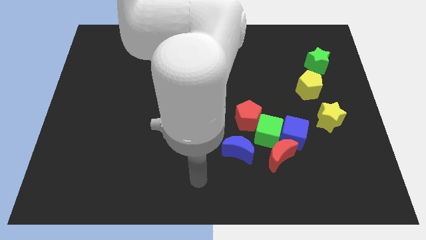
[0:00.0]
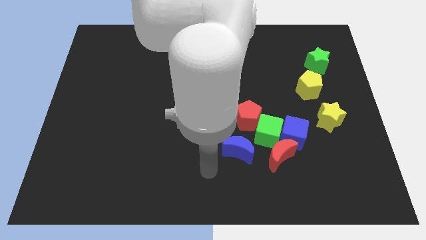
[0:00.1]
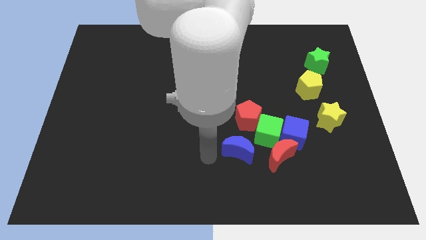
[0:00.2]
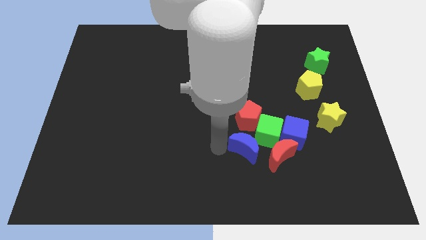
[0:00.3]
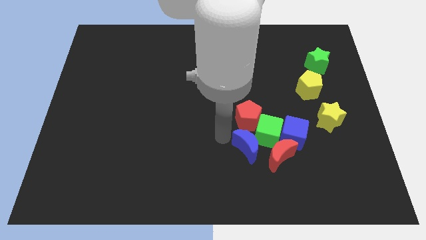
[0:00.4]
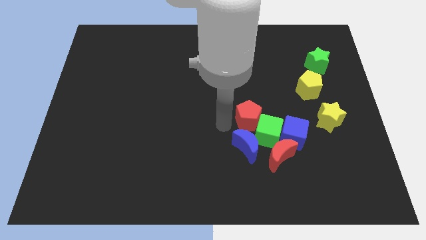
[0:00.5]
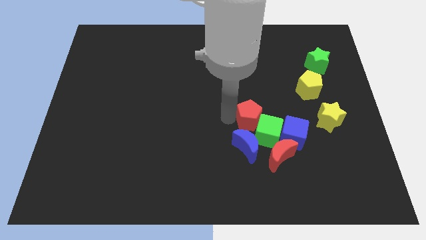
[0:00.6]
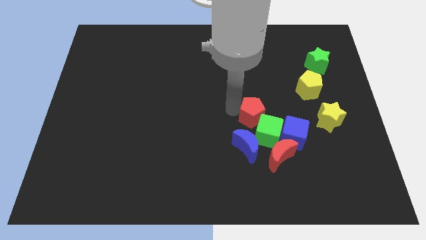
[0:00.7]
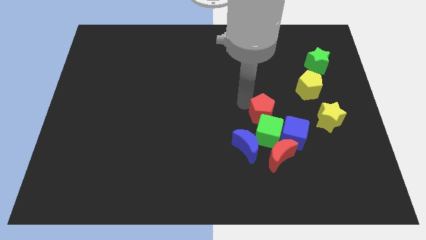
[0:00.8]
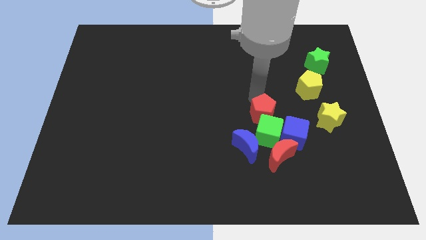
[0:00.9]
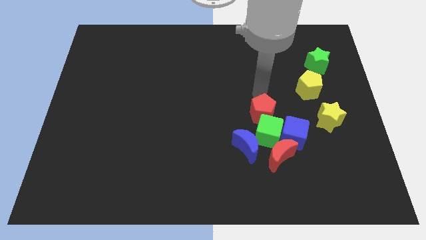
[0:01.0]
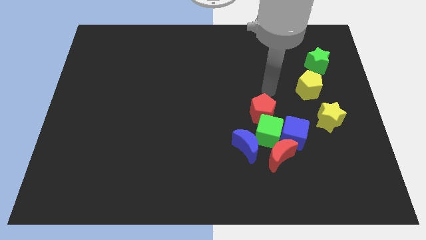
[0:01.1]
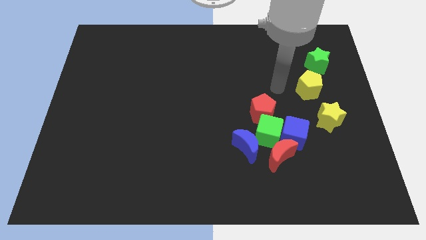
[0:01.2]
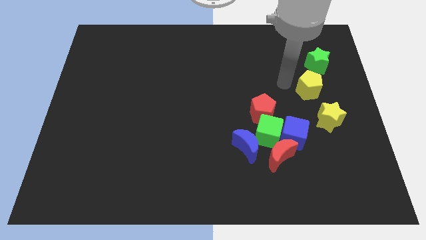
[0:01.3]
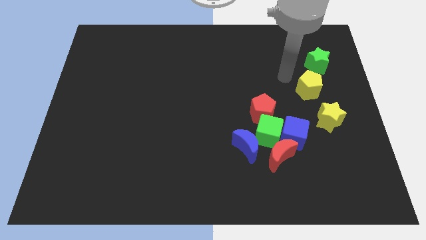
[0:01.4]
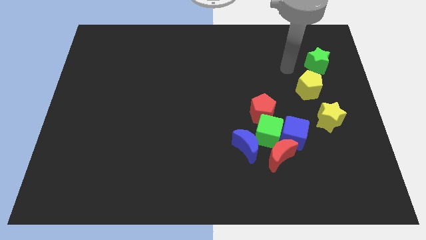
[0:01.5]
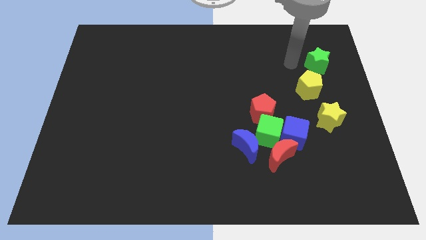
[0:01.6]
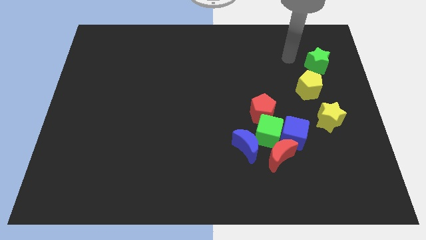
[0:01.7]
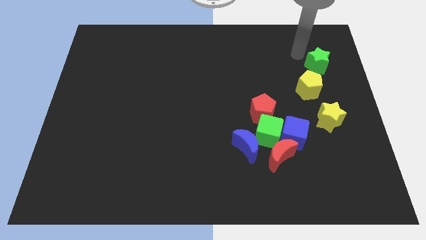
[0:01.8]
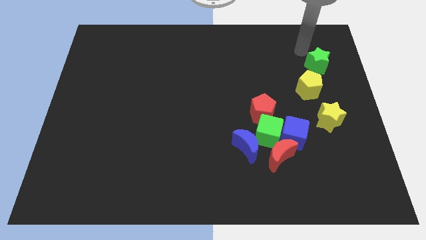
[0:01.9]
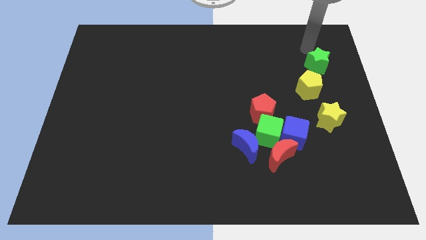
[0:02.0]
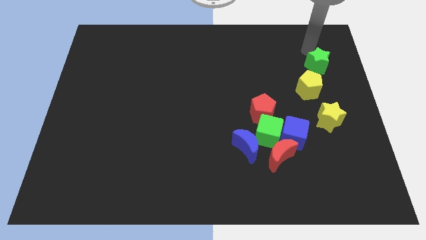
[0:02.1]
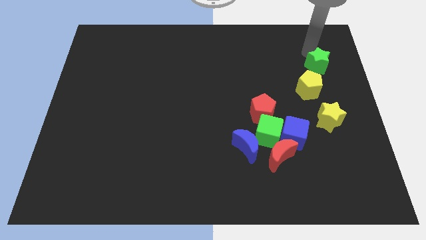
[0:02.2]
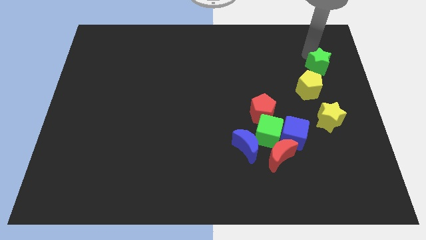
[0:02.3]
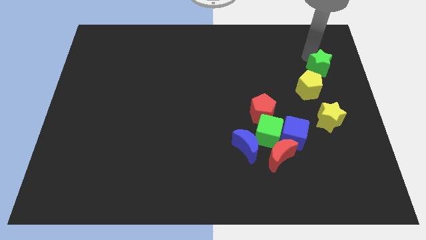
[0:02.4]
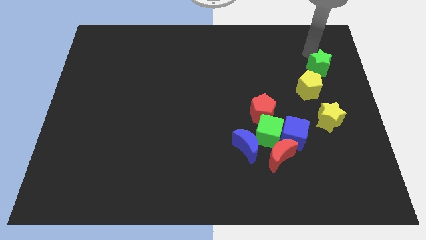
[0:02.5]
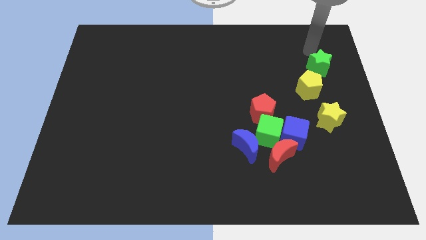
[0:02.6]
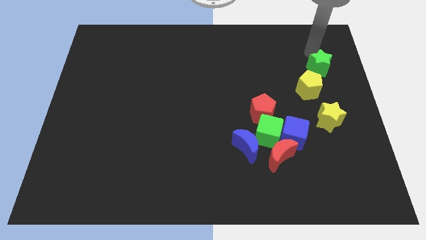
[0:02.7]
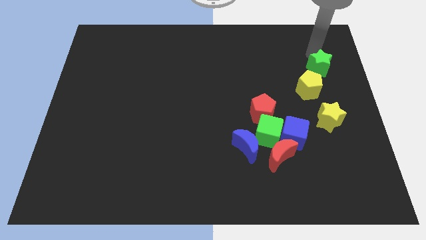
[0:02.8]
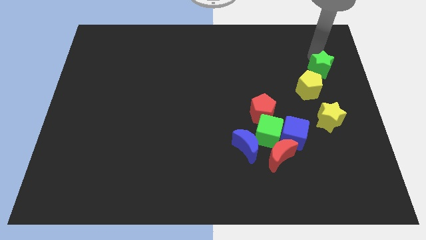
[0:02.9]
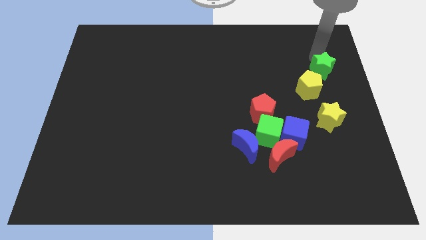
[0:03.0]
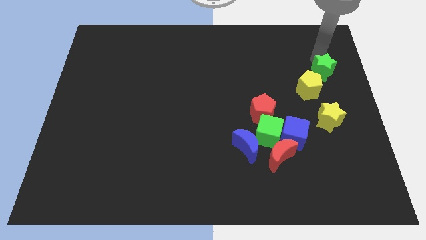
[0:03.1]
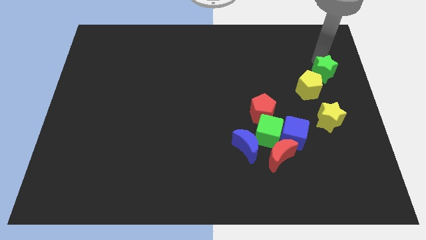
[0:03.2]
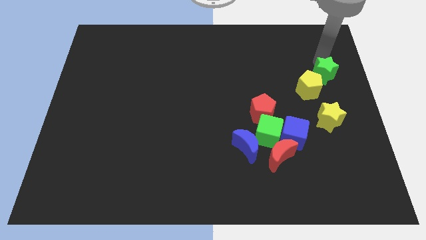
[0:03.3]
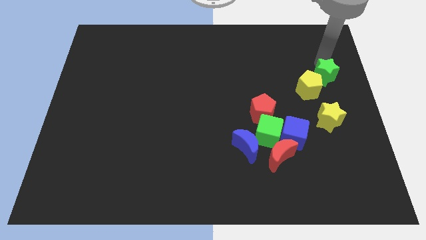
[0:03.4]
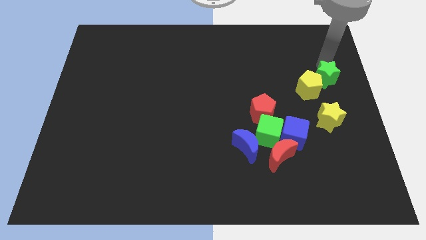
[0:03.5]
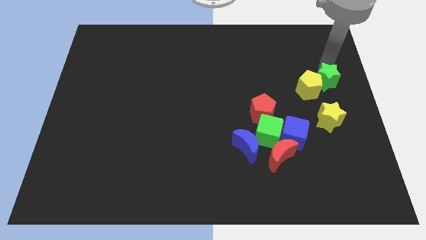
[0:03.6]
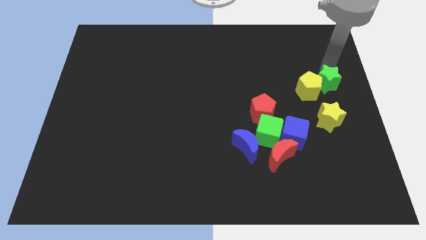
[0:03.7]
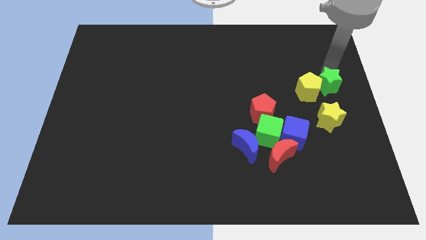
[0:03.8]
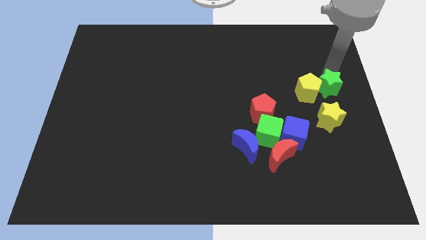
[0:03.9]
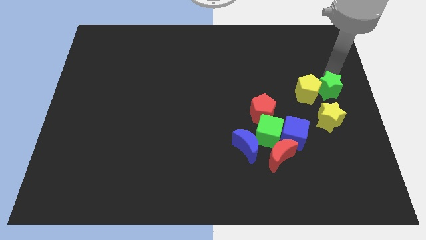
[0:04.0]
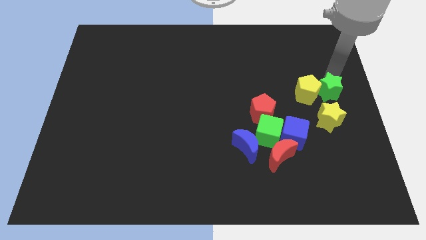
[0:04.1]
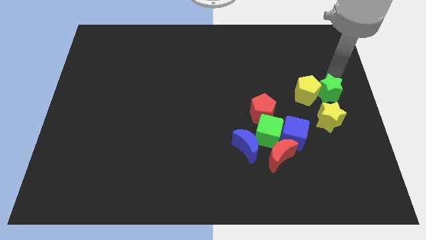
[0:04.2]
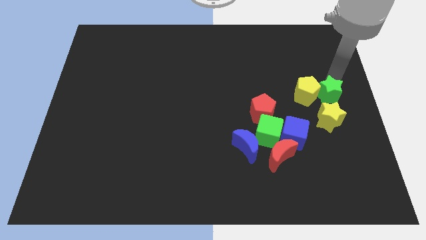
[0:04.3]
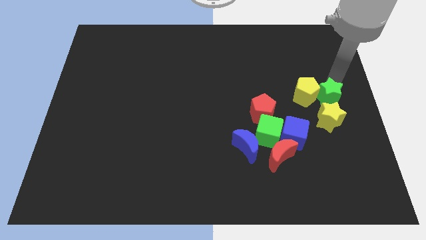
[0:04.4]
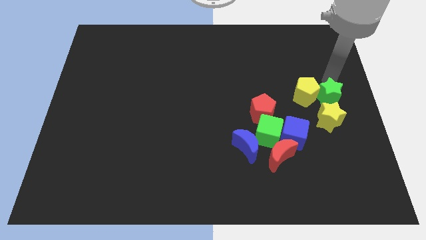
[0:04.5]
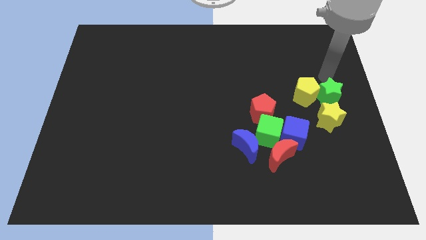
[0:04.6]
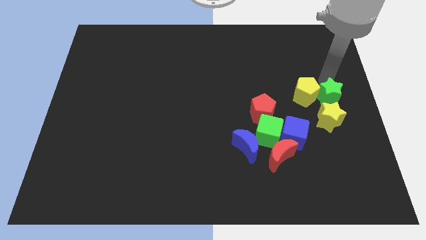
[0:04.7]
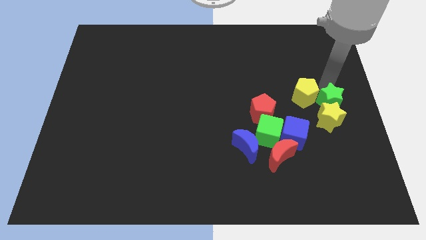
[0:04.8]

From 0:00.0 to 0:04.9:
put the green star close to the yellow star

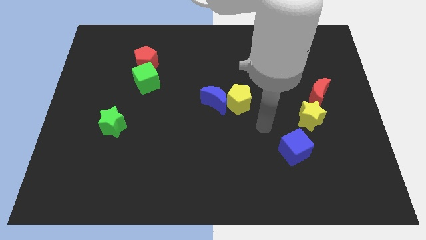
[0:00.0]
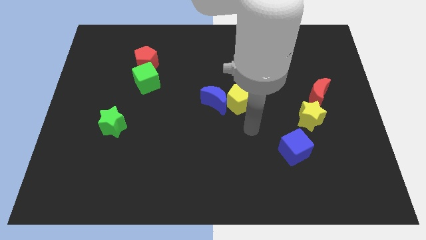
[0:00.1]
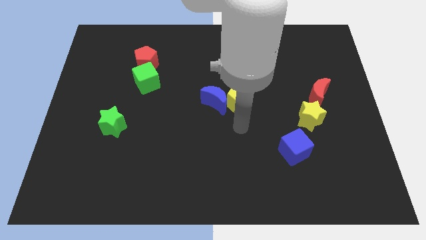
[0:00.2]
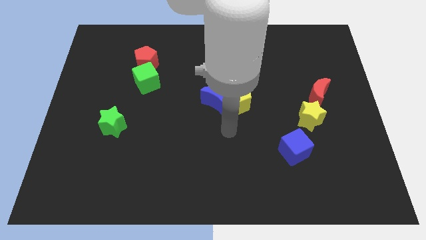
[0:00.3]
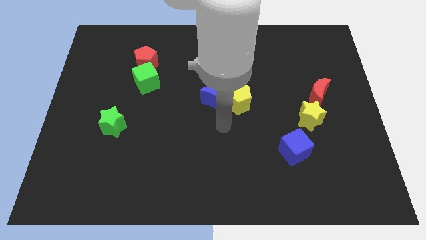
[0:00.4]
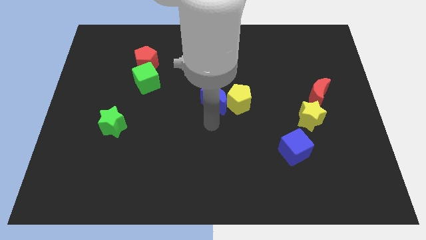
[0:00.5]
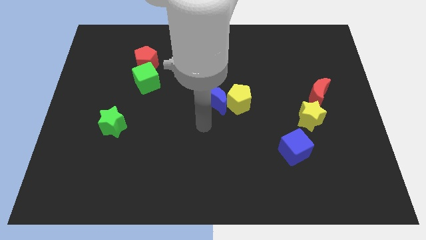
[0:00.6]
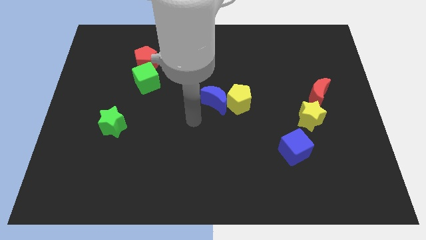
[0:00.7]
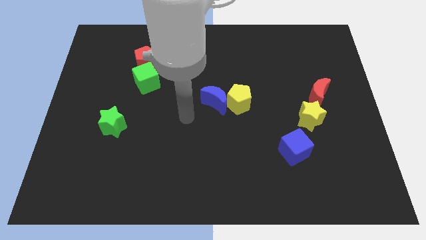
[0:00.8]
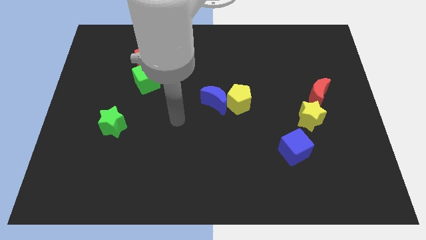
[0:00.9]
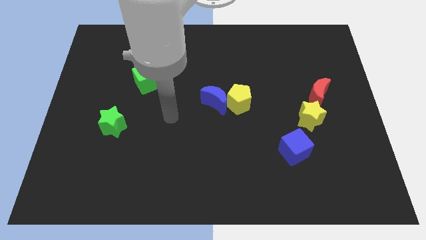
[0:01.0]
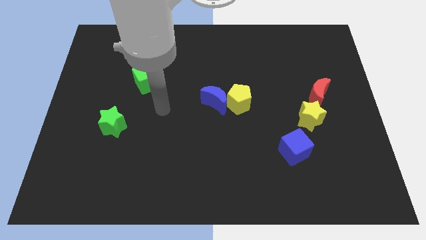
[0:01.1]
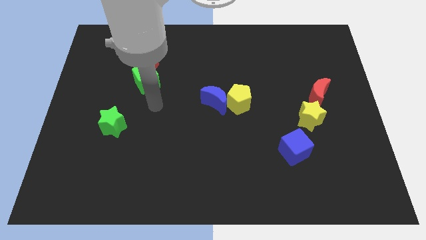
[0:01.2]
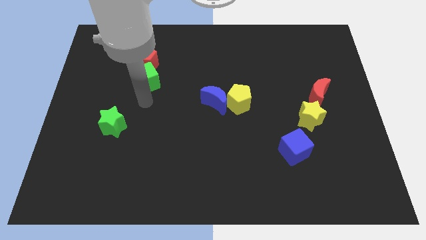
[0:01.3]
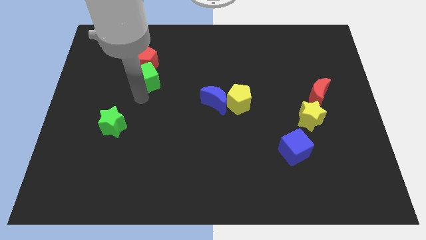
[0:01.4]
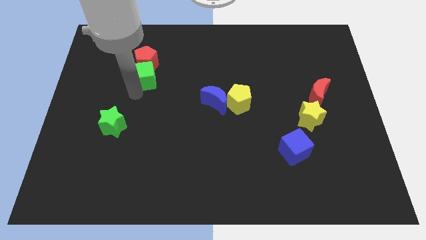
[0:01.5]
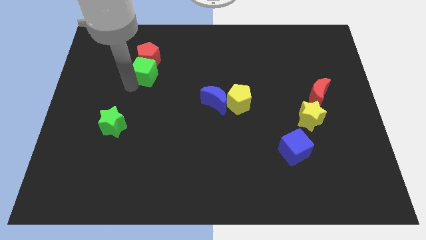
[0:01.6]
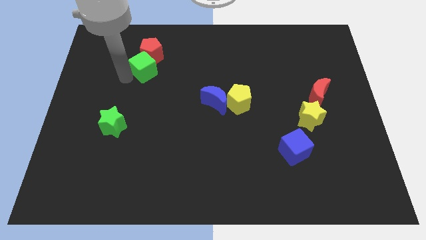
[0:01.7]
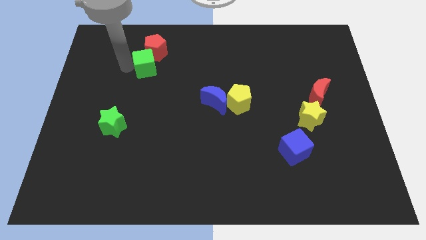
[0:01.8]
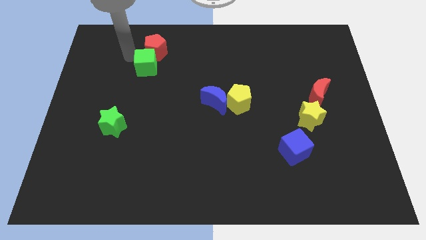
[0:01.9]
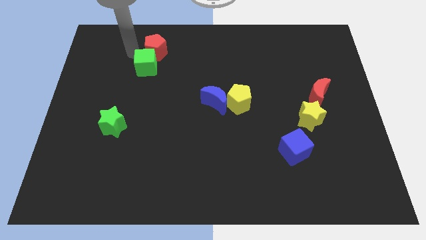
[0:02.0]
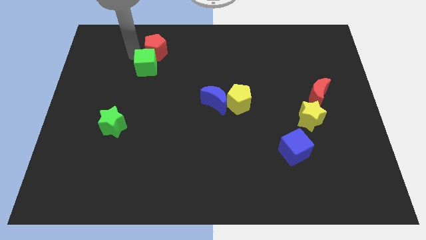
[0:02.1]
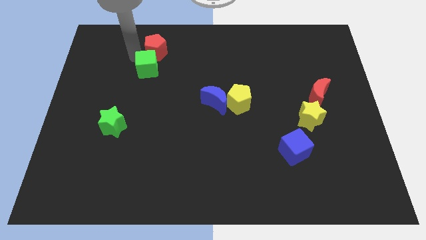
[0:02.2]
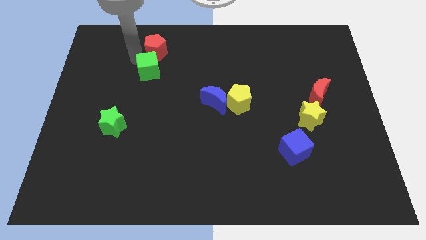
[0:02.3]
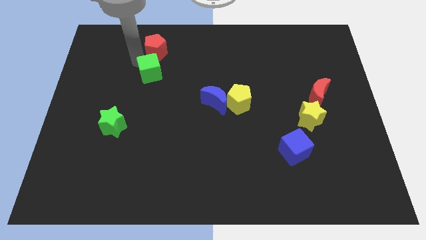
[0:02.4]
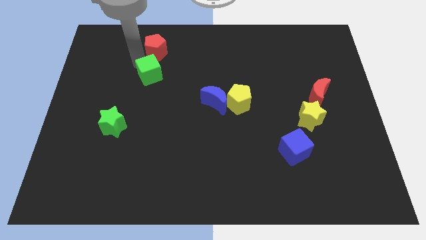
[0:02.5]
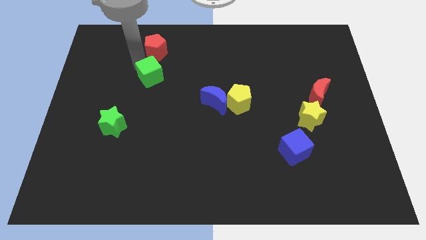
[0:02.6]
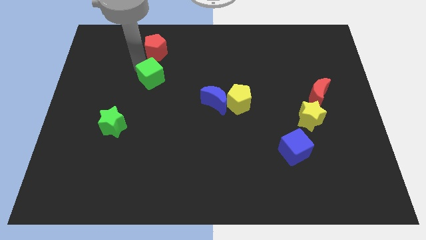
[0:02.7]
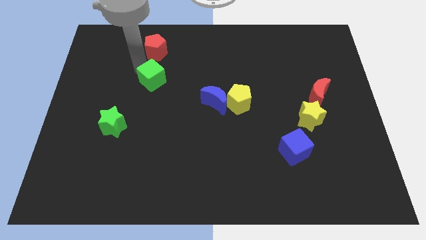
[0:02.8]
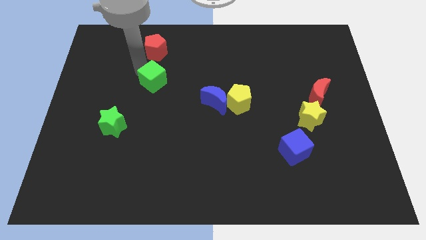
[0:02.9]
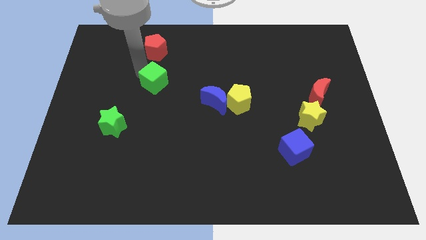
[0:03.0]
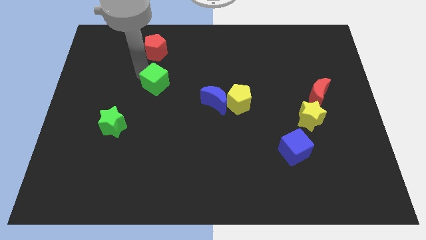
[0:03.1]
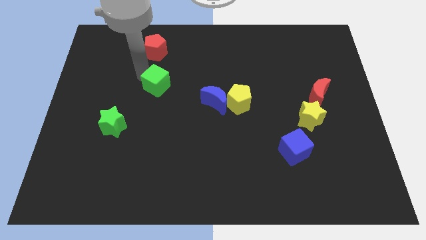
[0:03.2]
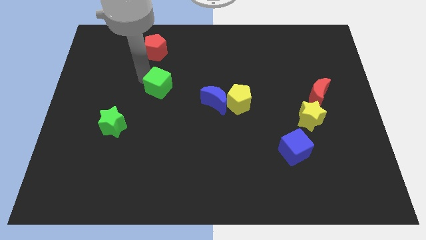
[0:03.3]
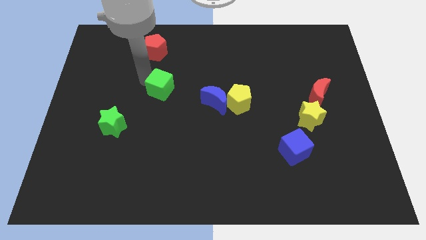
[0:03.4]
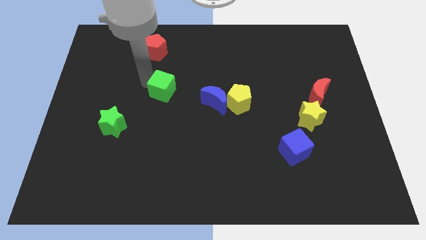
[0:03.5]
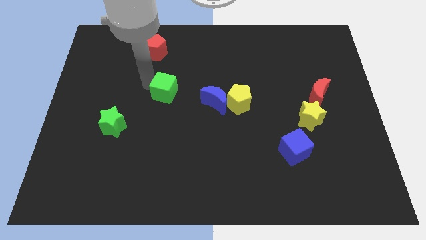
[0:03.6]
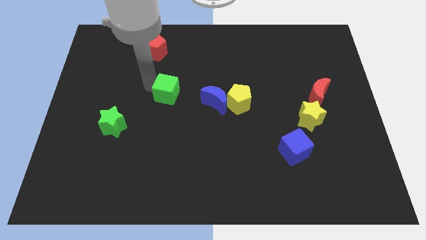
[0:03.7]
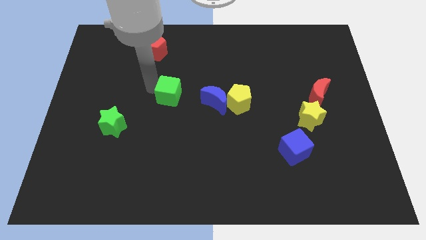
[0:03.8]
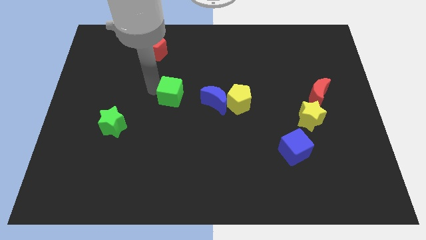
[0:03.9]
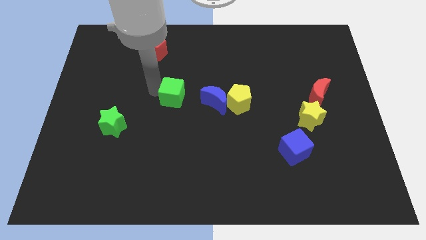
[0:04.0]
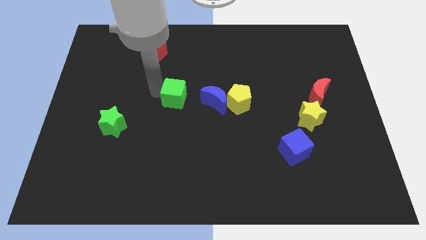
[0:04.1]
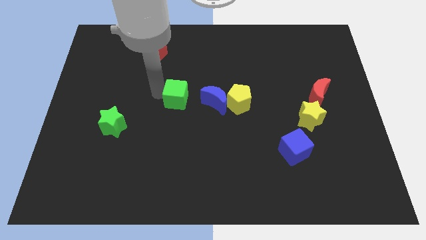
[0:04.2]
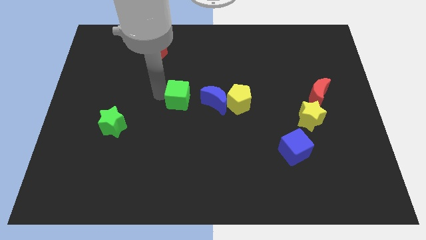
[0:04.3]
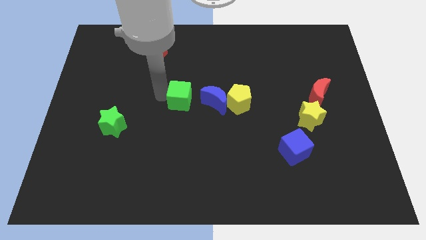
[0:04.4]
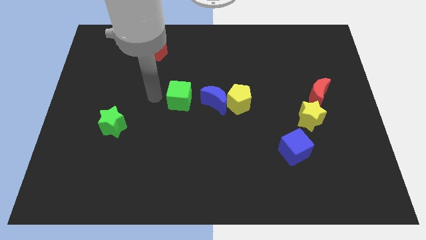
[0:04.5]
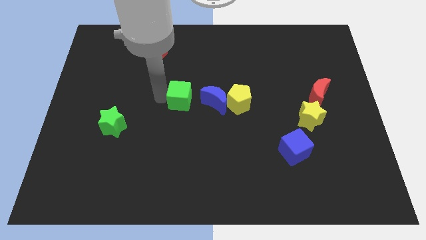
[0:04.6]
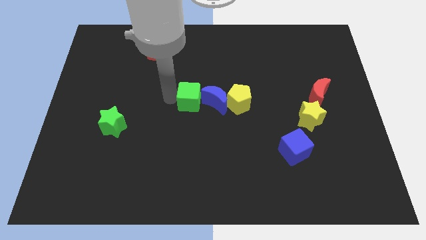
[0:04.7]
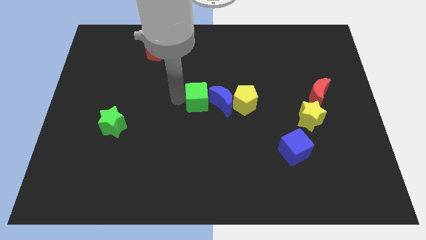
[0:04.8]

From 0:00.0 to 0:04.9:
slide the green cube next to the blue moon
